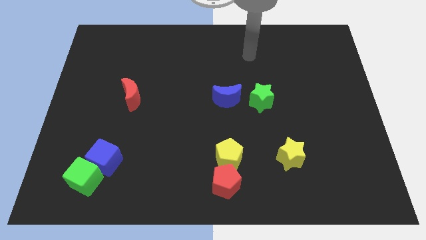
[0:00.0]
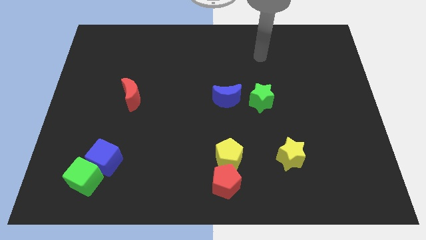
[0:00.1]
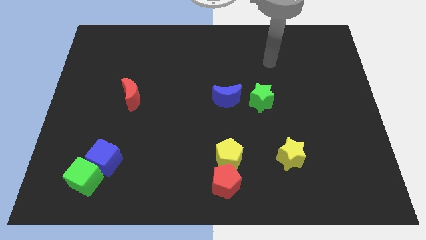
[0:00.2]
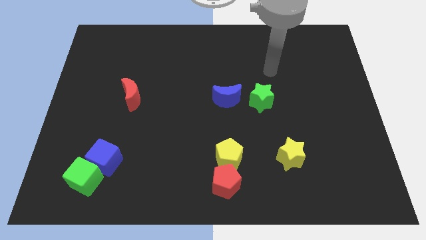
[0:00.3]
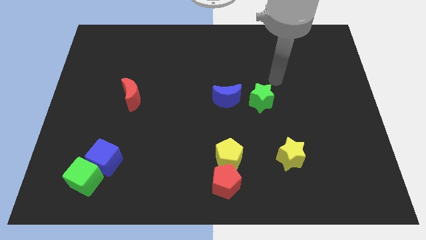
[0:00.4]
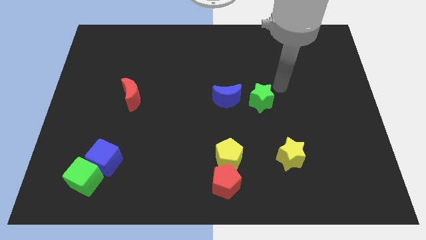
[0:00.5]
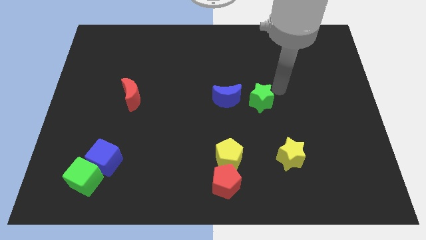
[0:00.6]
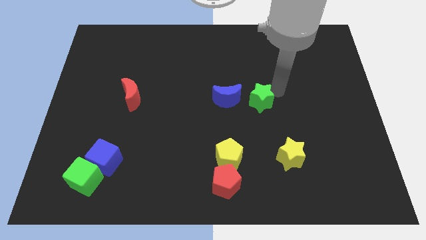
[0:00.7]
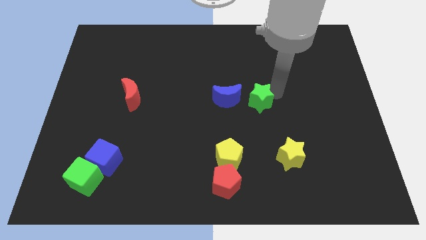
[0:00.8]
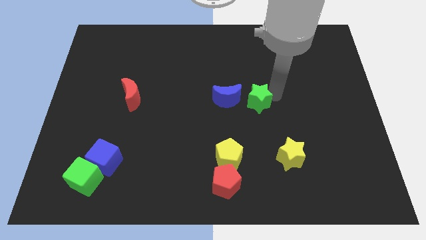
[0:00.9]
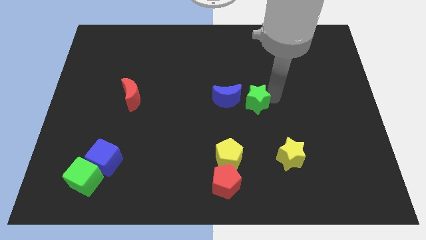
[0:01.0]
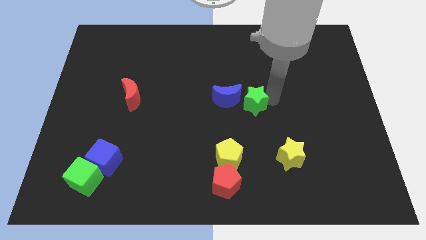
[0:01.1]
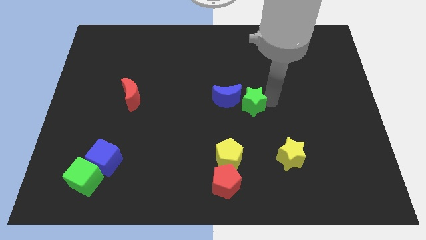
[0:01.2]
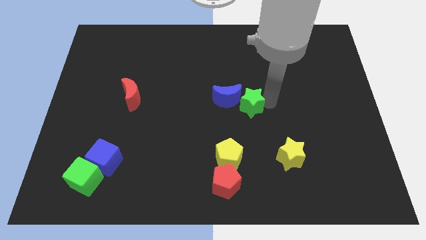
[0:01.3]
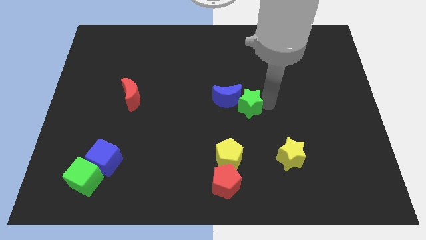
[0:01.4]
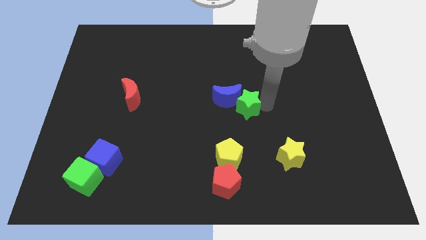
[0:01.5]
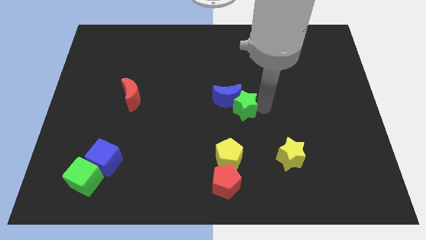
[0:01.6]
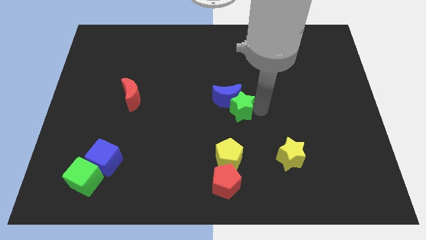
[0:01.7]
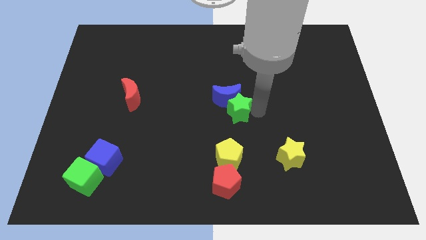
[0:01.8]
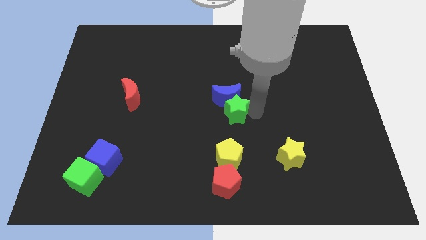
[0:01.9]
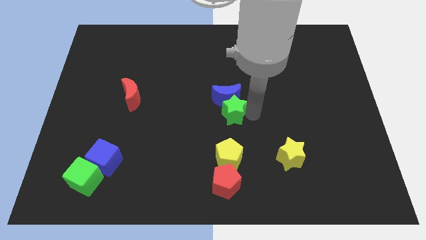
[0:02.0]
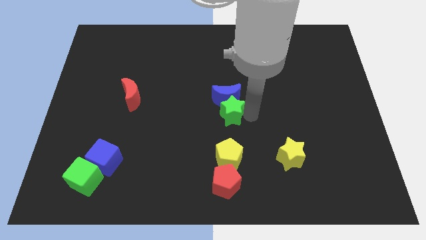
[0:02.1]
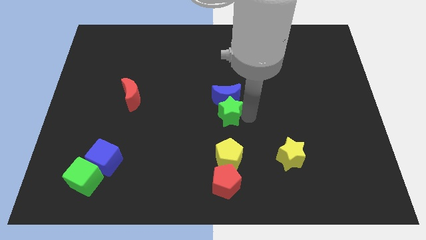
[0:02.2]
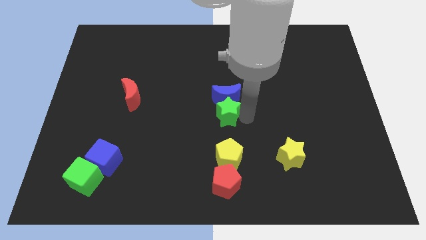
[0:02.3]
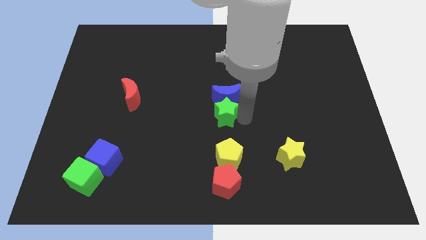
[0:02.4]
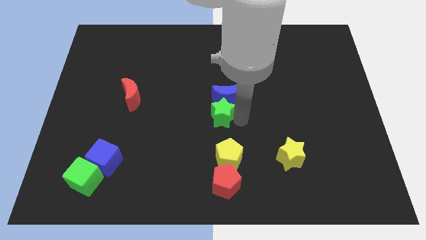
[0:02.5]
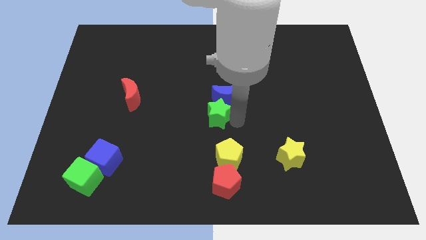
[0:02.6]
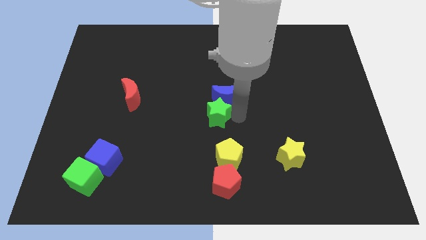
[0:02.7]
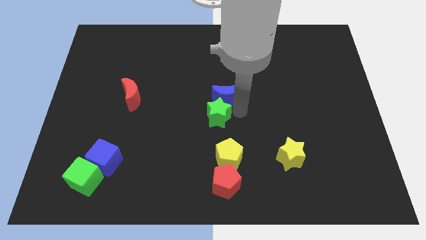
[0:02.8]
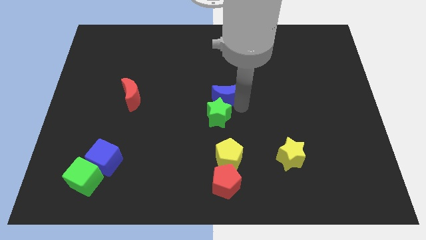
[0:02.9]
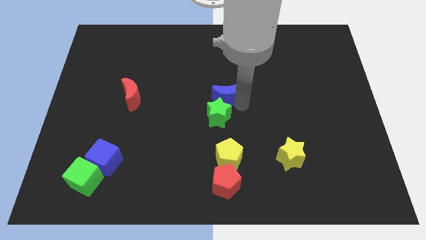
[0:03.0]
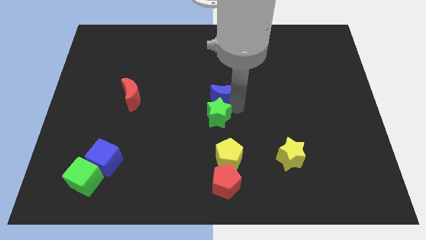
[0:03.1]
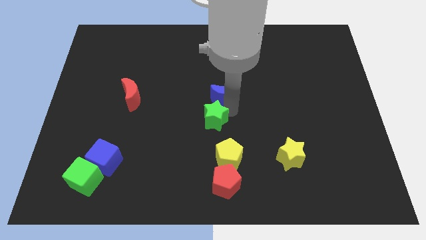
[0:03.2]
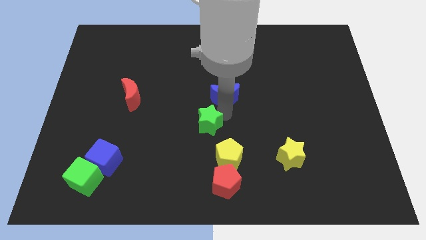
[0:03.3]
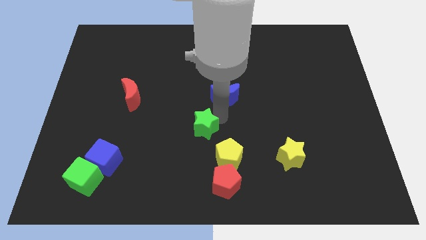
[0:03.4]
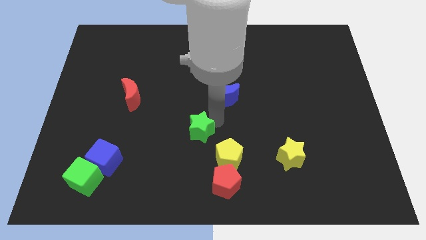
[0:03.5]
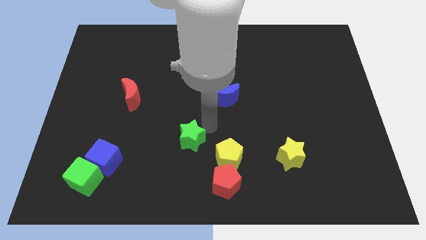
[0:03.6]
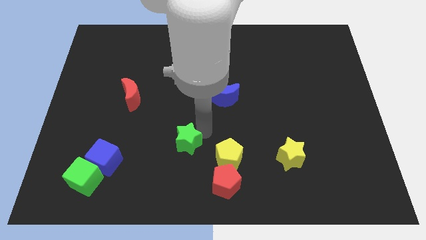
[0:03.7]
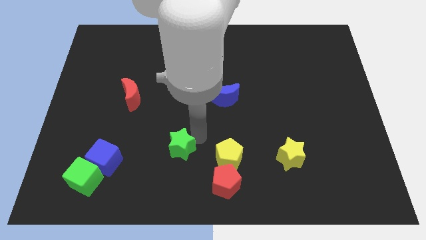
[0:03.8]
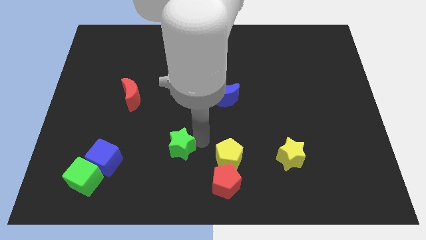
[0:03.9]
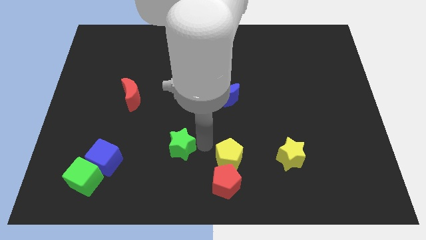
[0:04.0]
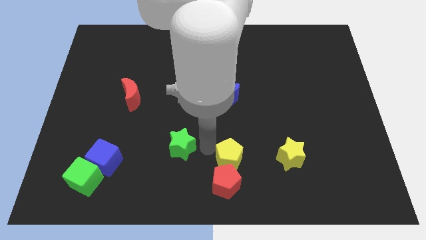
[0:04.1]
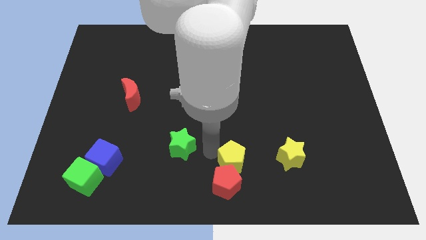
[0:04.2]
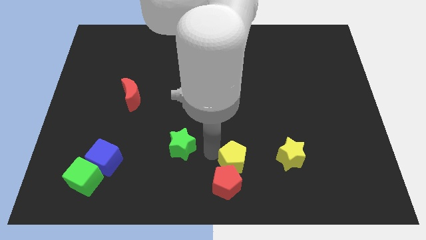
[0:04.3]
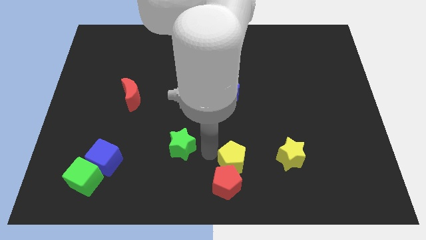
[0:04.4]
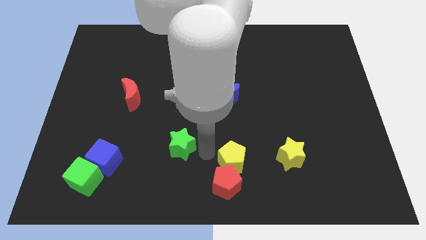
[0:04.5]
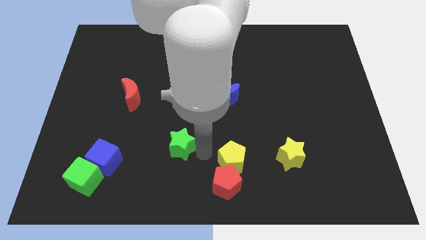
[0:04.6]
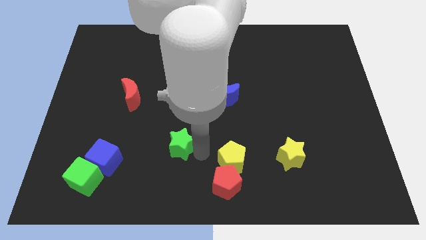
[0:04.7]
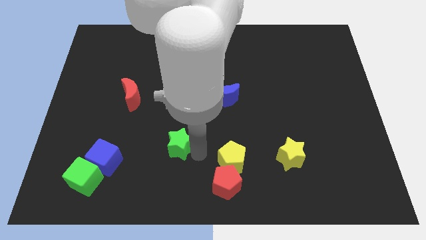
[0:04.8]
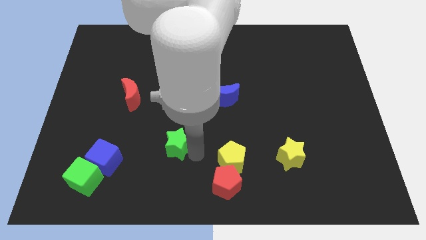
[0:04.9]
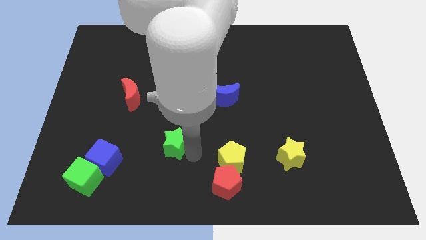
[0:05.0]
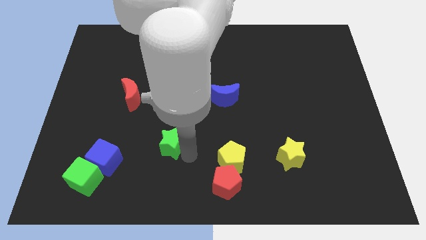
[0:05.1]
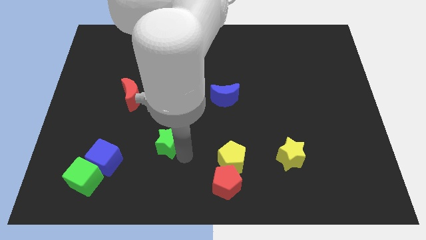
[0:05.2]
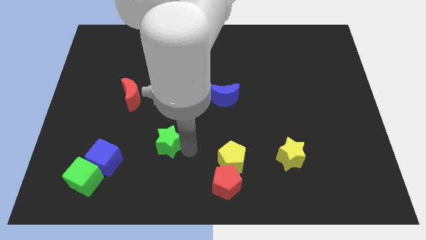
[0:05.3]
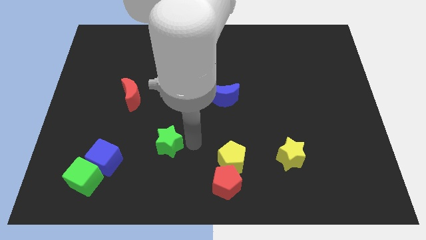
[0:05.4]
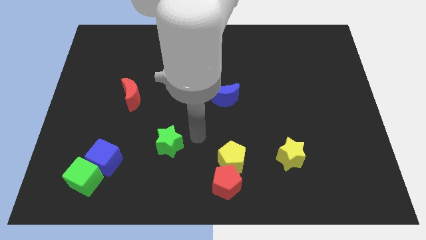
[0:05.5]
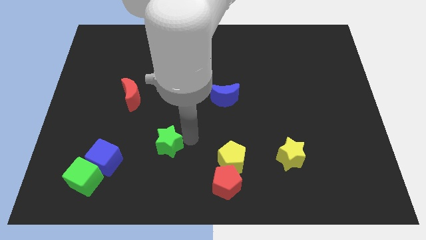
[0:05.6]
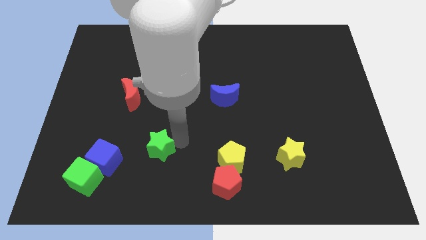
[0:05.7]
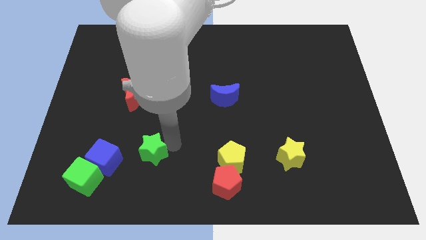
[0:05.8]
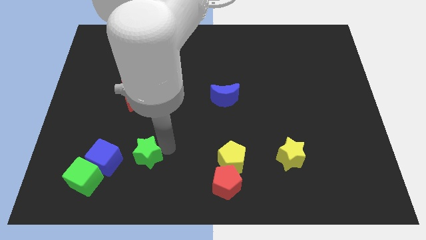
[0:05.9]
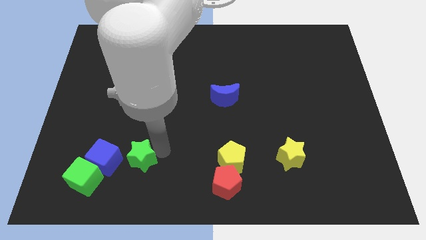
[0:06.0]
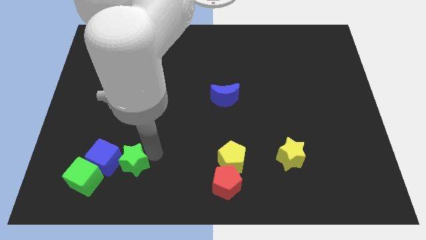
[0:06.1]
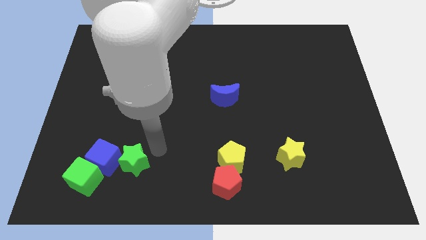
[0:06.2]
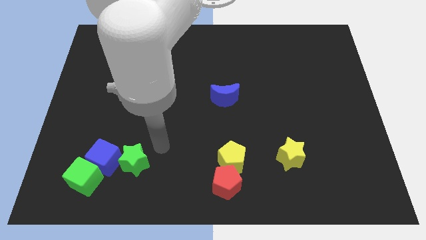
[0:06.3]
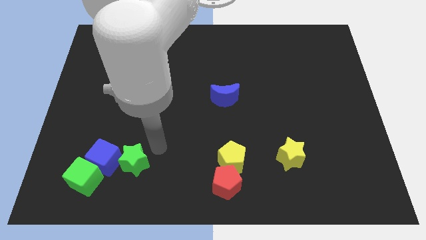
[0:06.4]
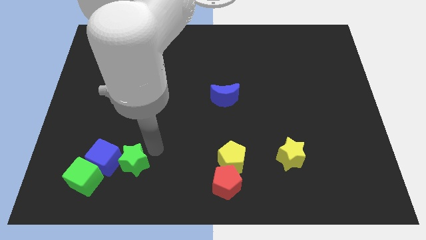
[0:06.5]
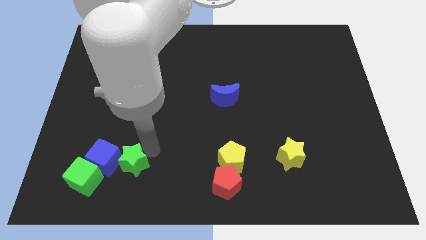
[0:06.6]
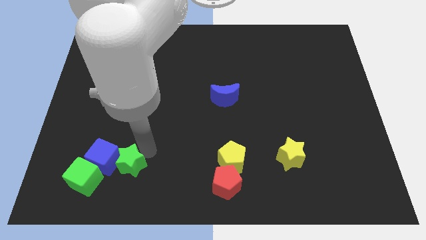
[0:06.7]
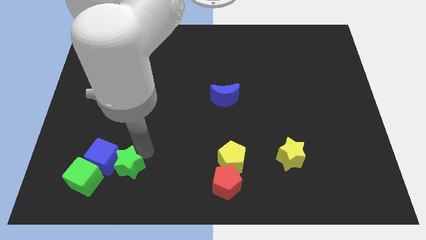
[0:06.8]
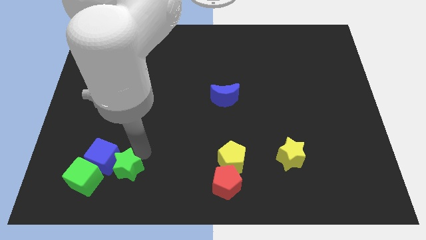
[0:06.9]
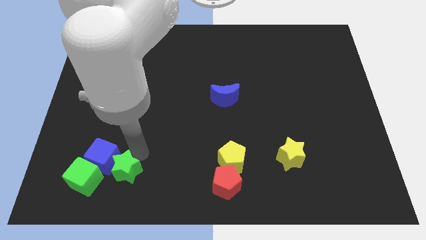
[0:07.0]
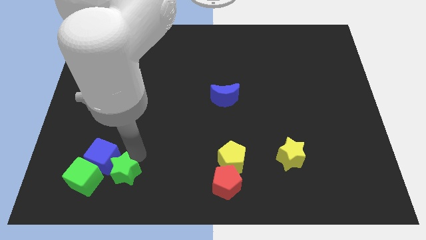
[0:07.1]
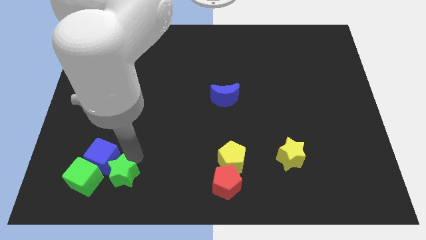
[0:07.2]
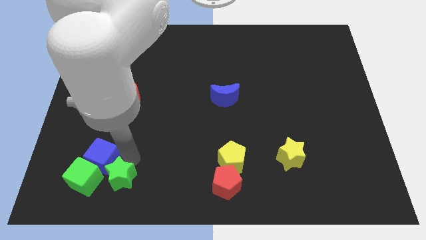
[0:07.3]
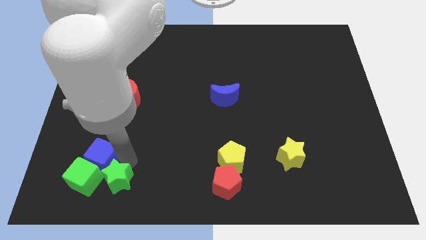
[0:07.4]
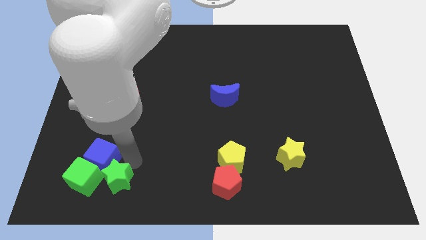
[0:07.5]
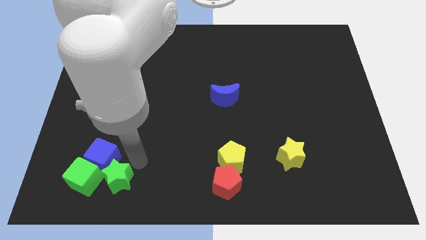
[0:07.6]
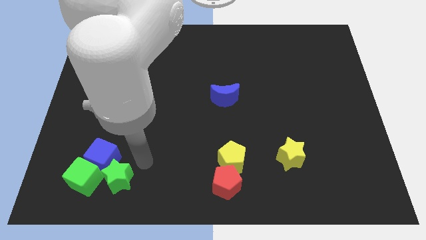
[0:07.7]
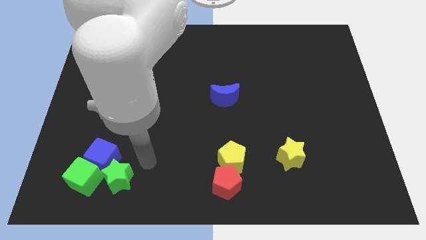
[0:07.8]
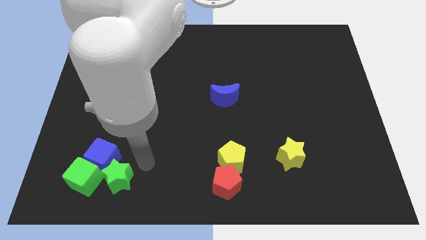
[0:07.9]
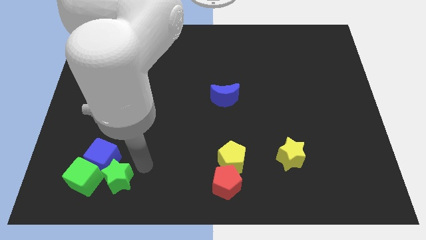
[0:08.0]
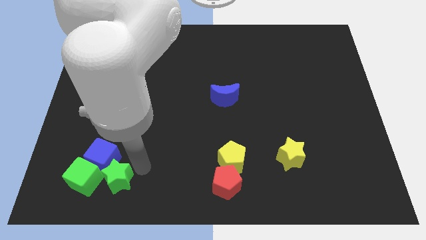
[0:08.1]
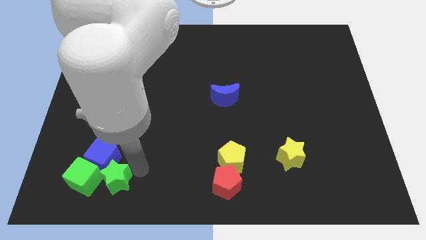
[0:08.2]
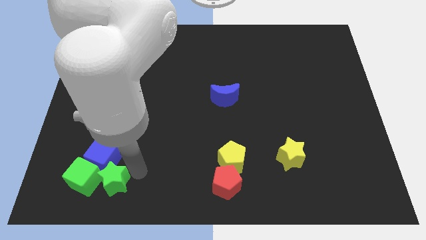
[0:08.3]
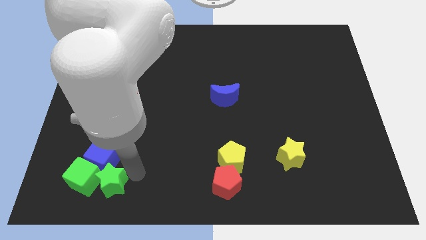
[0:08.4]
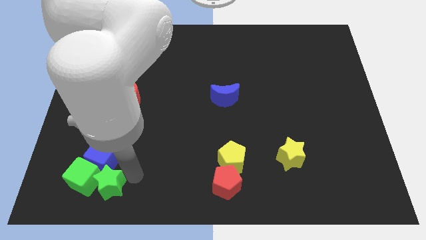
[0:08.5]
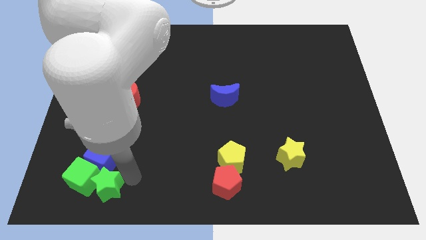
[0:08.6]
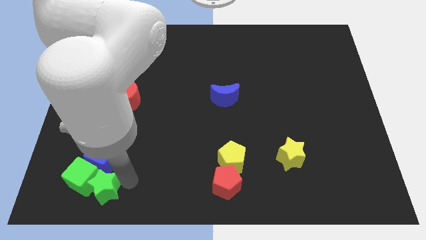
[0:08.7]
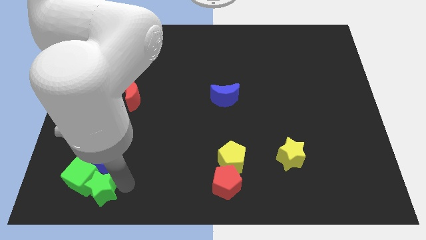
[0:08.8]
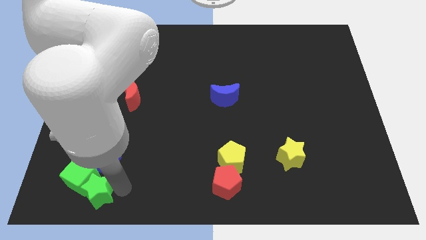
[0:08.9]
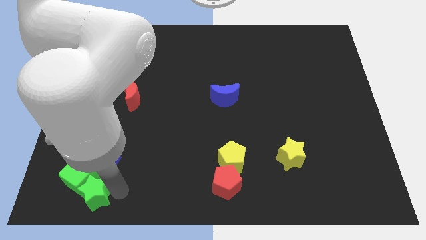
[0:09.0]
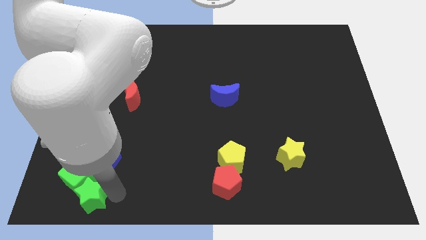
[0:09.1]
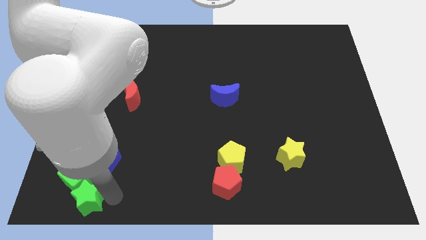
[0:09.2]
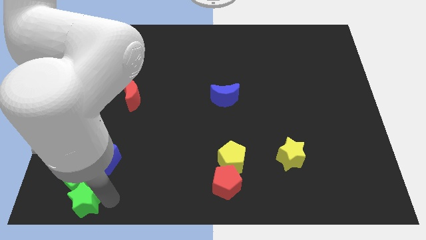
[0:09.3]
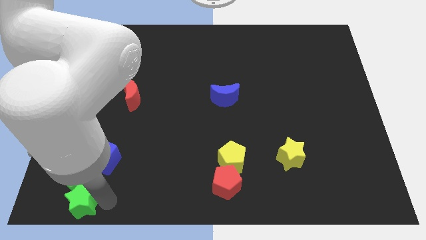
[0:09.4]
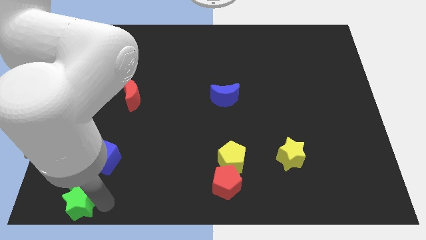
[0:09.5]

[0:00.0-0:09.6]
push the green star to the bottom left corner
